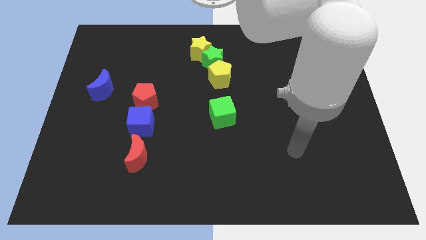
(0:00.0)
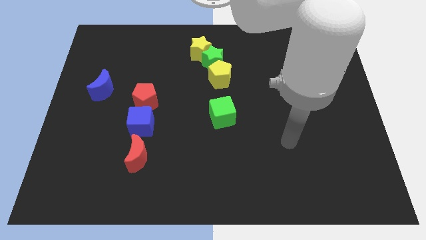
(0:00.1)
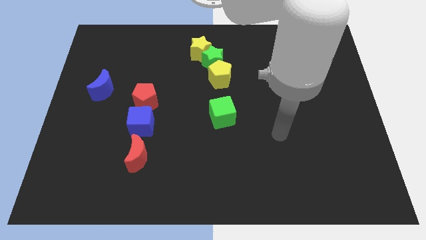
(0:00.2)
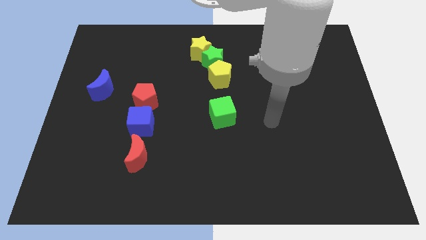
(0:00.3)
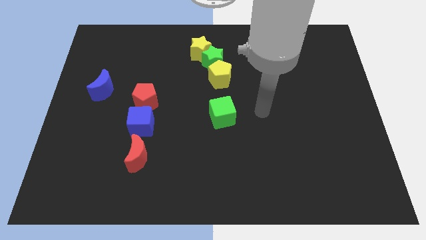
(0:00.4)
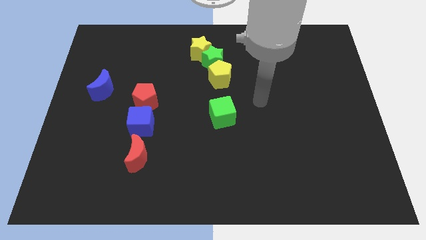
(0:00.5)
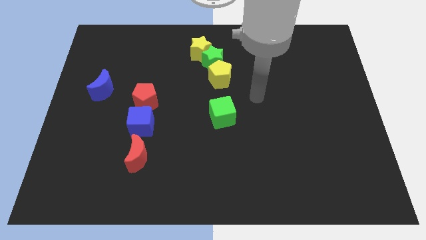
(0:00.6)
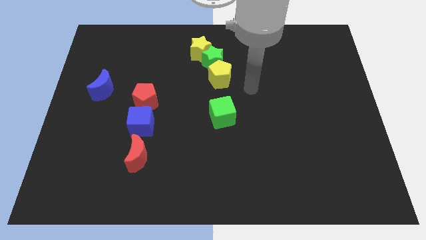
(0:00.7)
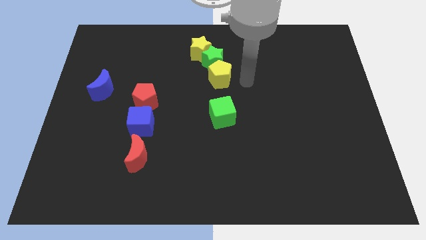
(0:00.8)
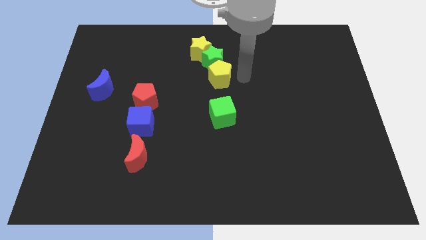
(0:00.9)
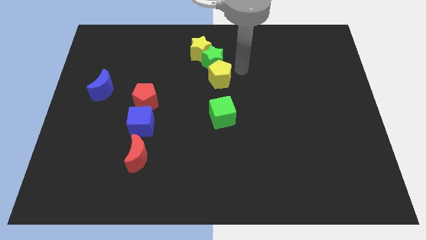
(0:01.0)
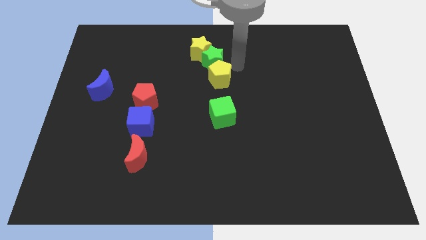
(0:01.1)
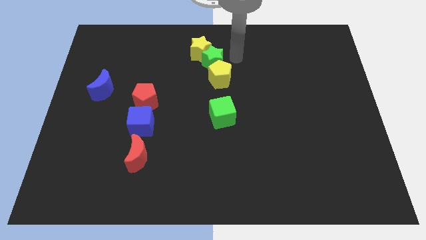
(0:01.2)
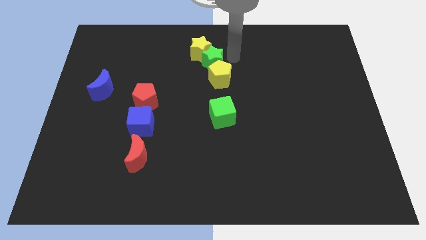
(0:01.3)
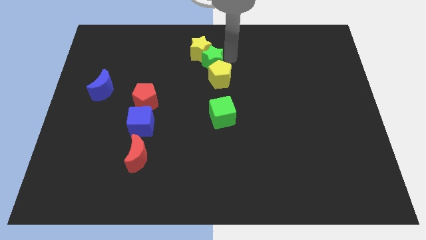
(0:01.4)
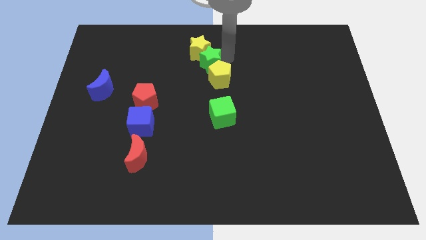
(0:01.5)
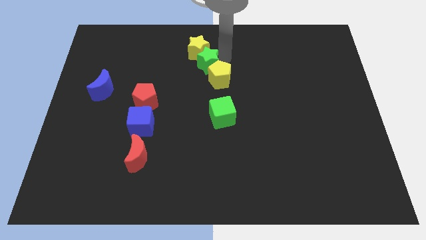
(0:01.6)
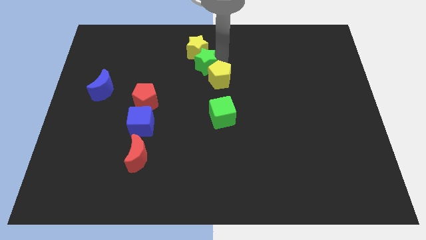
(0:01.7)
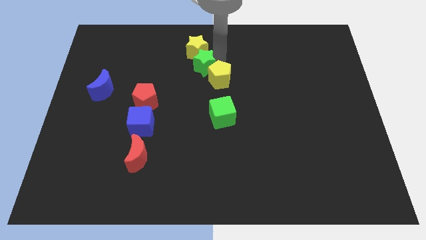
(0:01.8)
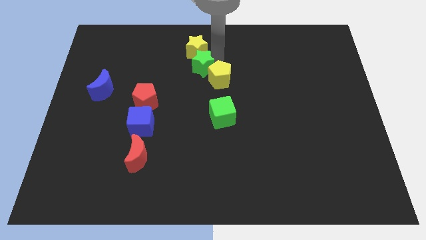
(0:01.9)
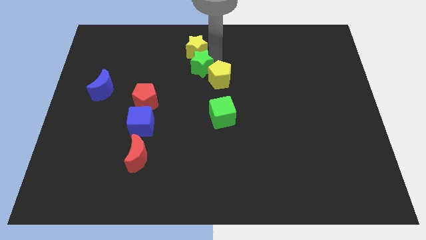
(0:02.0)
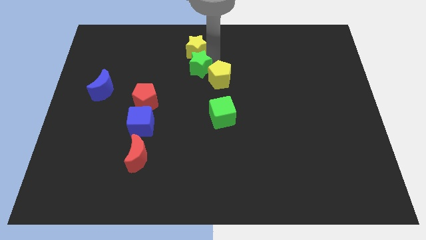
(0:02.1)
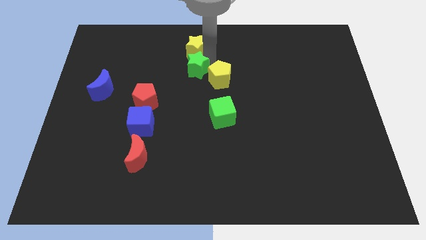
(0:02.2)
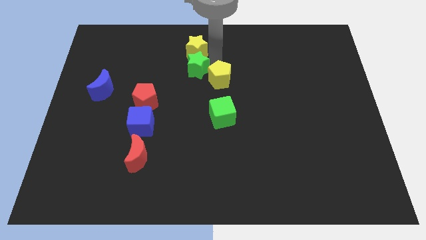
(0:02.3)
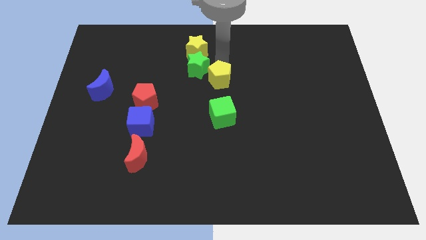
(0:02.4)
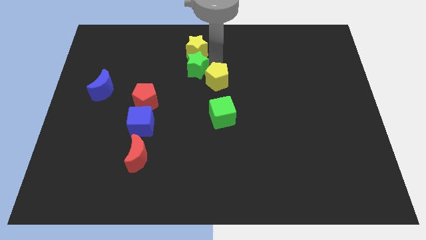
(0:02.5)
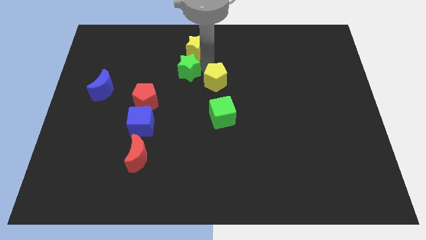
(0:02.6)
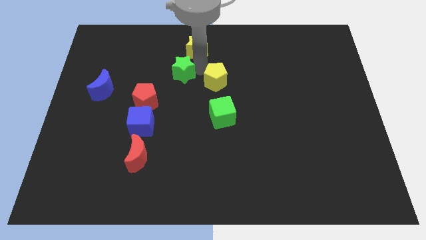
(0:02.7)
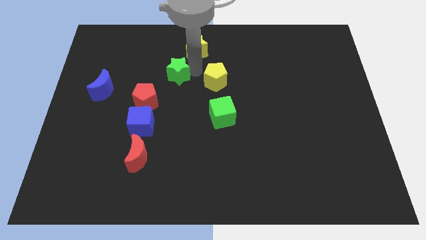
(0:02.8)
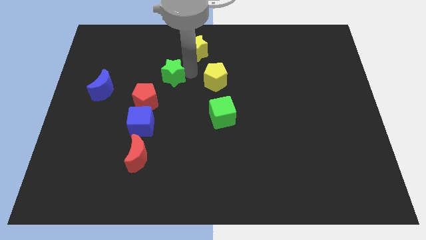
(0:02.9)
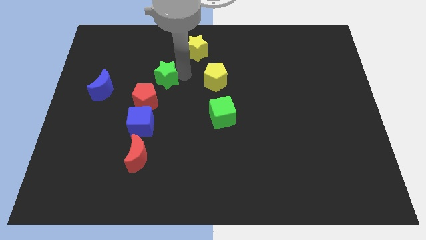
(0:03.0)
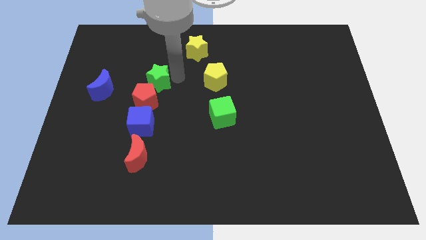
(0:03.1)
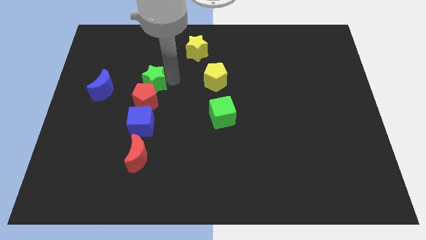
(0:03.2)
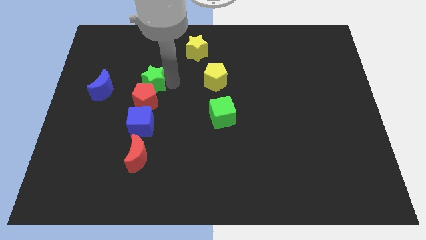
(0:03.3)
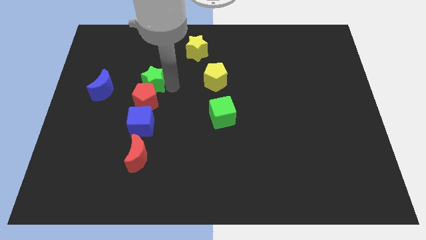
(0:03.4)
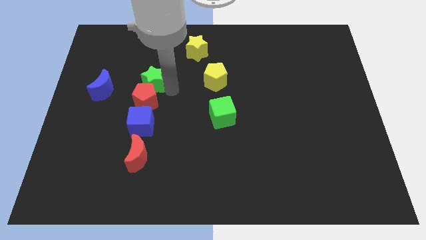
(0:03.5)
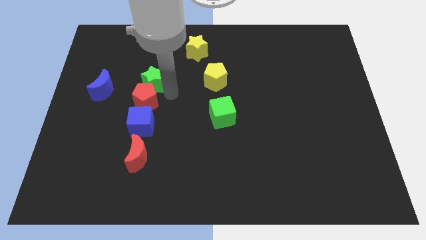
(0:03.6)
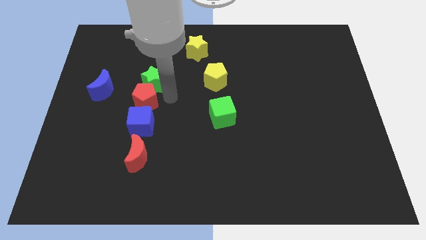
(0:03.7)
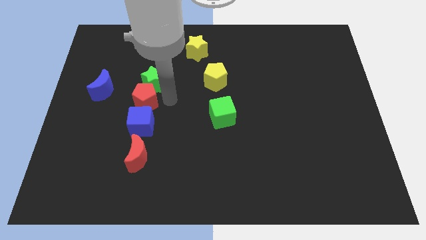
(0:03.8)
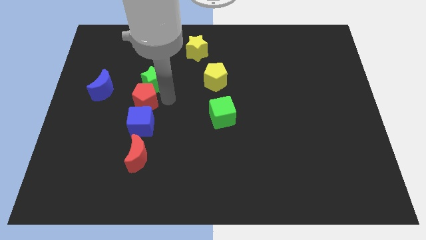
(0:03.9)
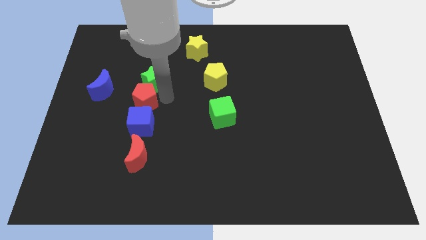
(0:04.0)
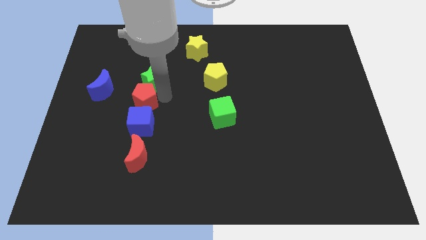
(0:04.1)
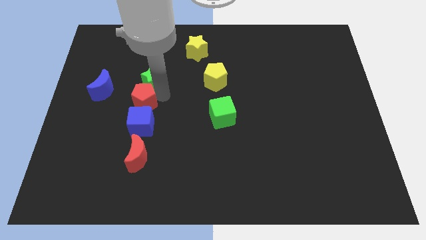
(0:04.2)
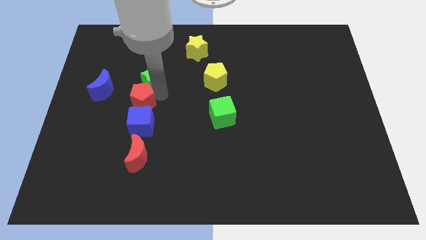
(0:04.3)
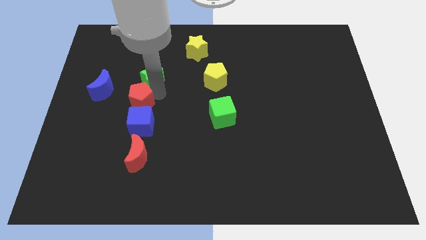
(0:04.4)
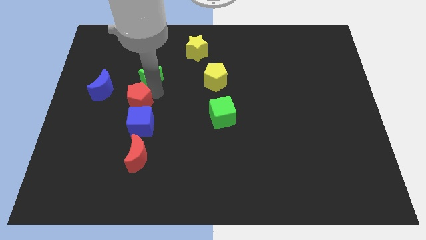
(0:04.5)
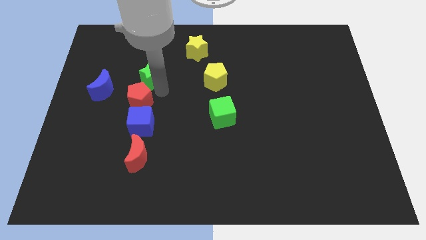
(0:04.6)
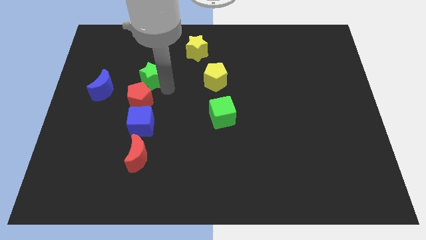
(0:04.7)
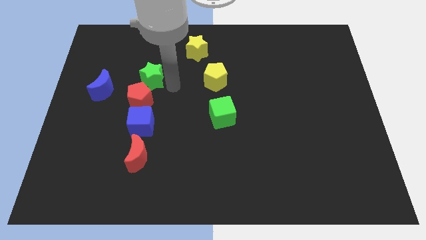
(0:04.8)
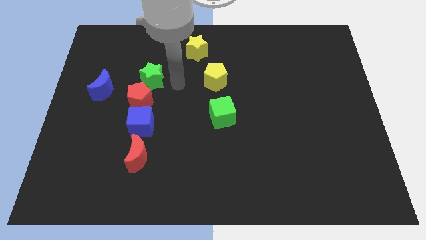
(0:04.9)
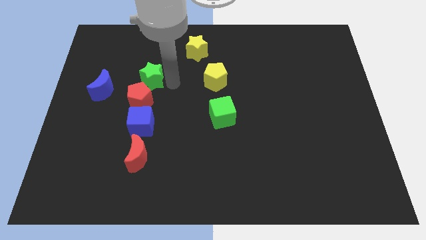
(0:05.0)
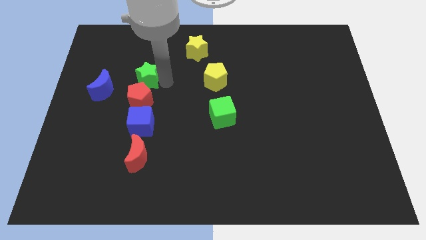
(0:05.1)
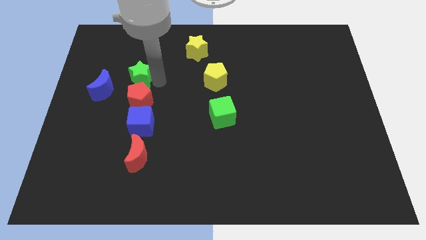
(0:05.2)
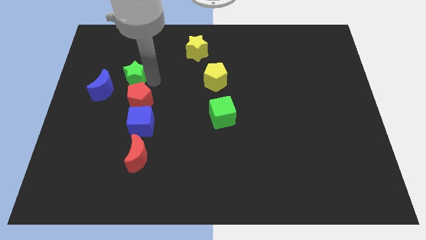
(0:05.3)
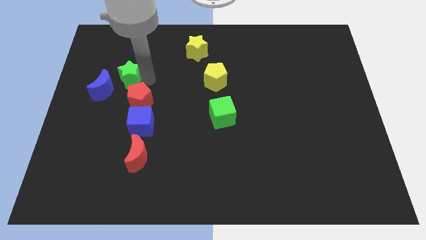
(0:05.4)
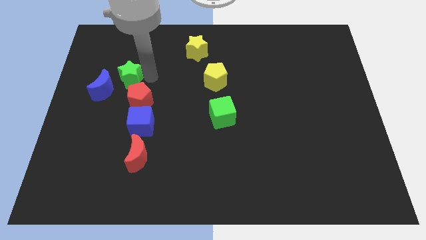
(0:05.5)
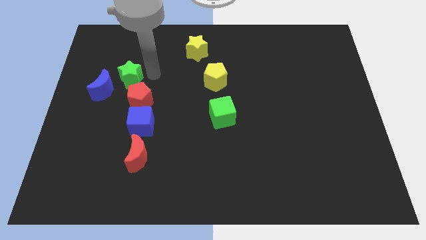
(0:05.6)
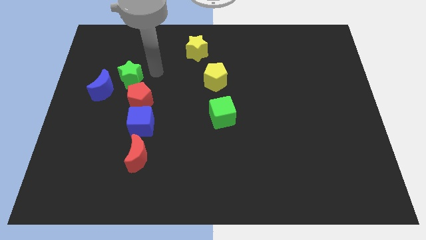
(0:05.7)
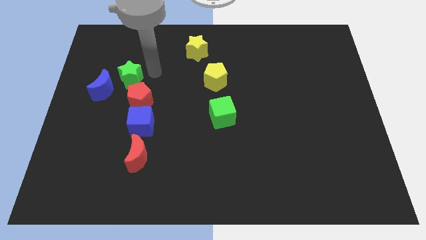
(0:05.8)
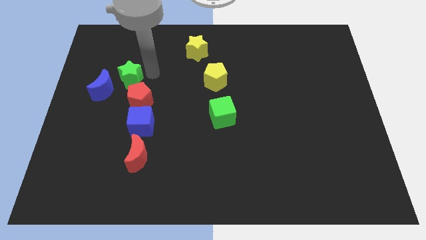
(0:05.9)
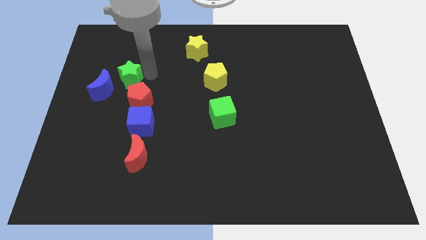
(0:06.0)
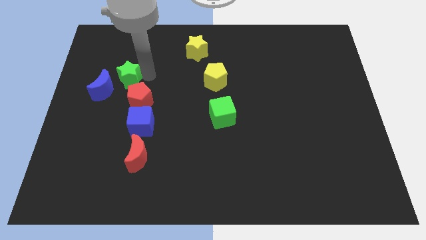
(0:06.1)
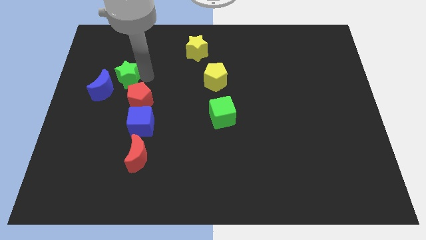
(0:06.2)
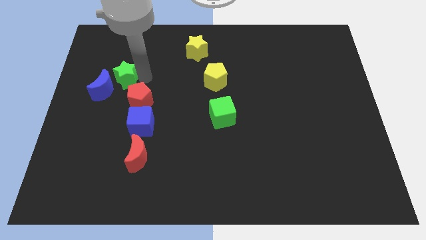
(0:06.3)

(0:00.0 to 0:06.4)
slide the green star next to the blue moon
